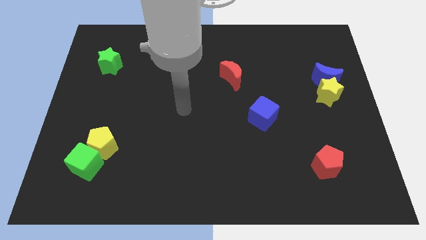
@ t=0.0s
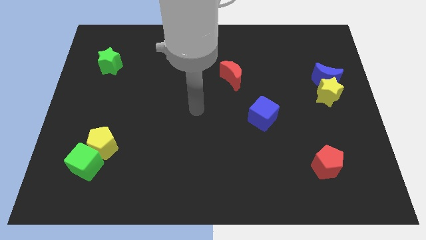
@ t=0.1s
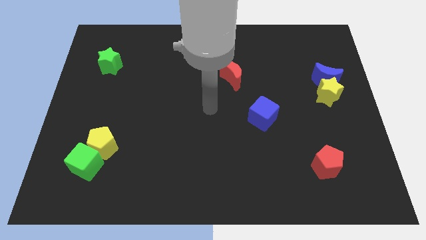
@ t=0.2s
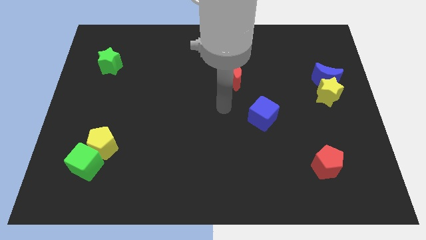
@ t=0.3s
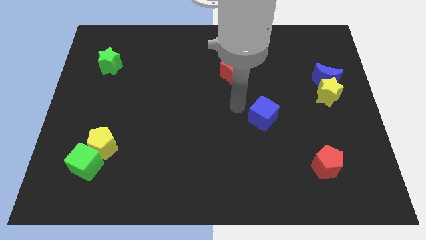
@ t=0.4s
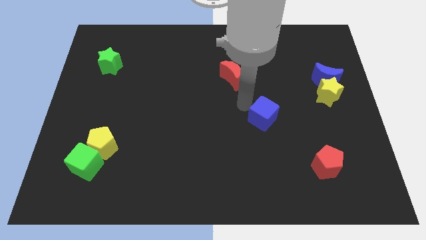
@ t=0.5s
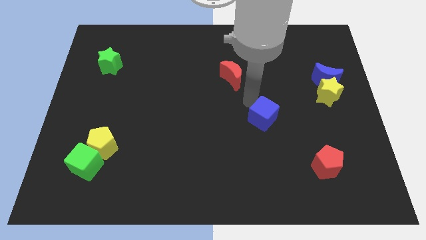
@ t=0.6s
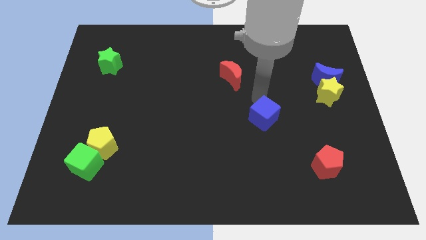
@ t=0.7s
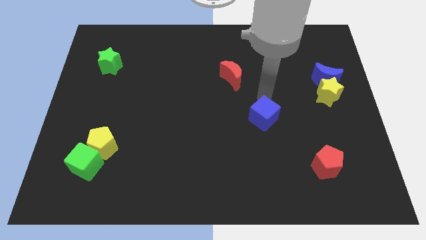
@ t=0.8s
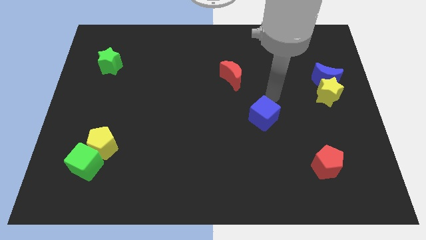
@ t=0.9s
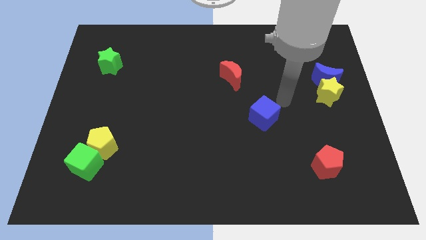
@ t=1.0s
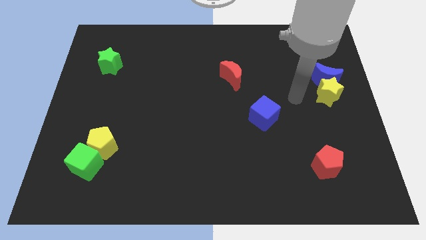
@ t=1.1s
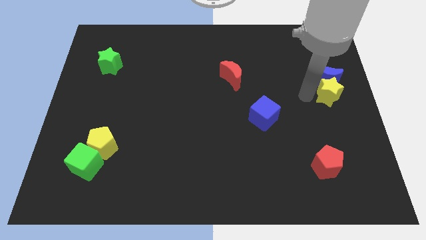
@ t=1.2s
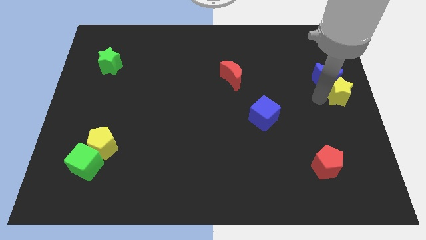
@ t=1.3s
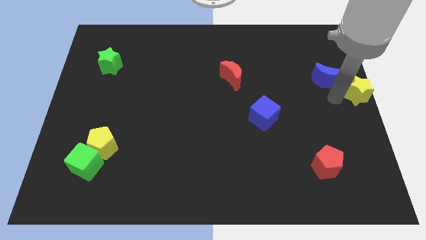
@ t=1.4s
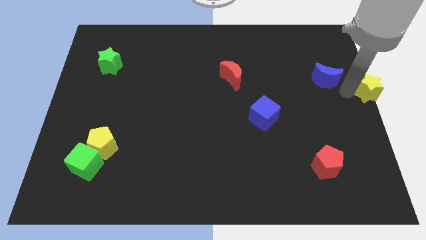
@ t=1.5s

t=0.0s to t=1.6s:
pull the blue moon apart from the yellow star

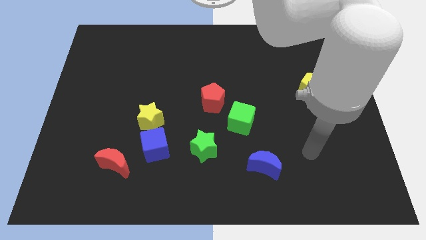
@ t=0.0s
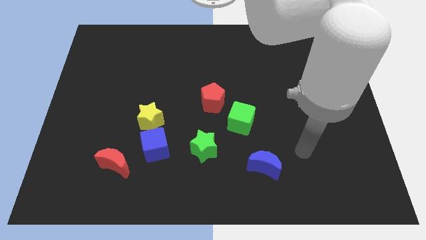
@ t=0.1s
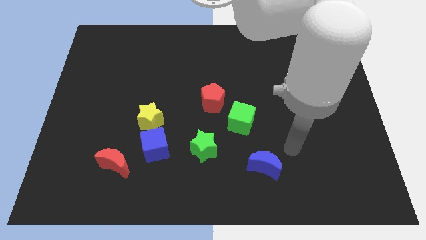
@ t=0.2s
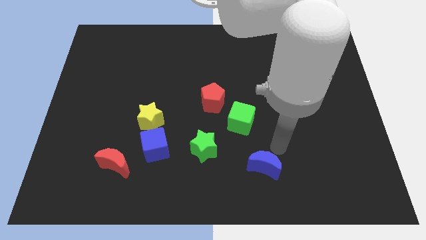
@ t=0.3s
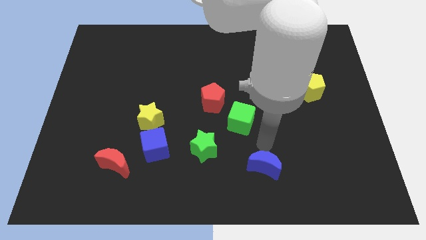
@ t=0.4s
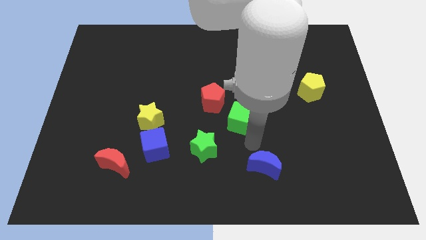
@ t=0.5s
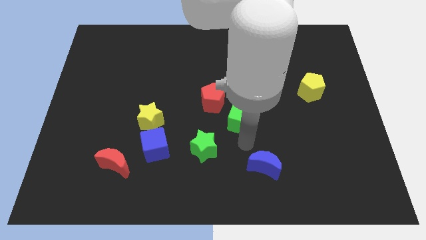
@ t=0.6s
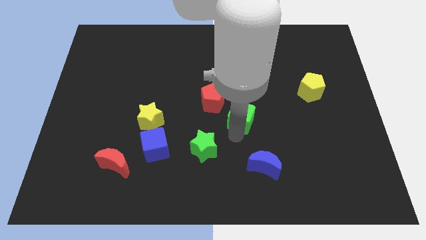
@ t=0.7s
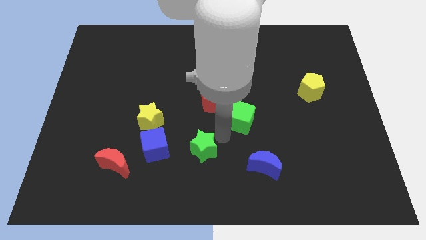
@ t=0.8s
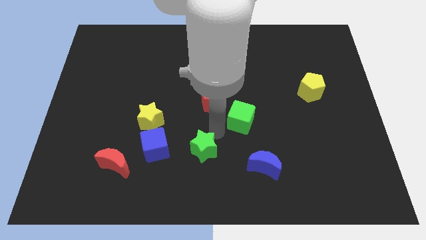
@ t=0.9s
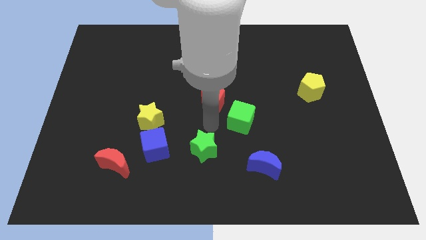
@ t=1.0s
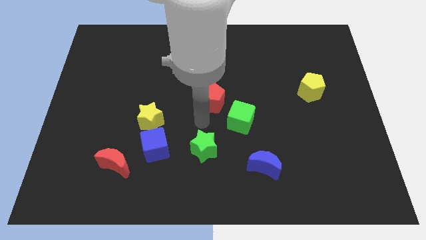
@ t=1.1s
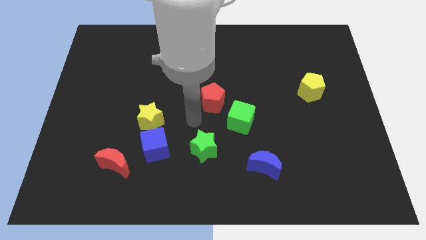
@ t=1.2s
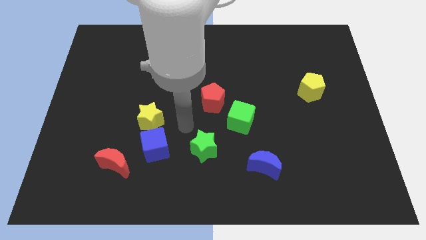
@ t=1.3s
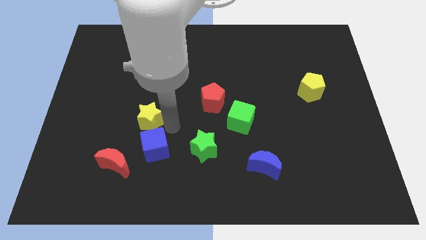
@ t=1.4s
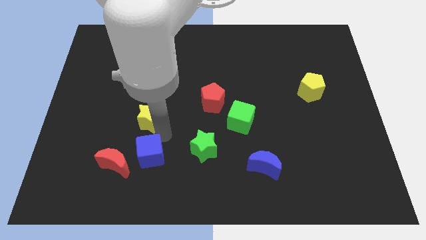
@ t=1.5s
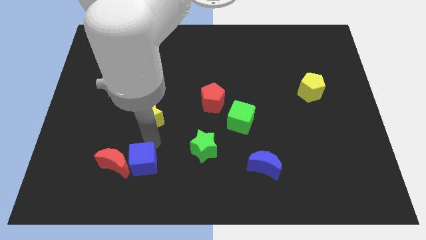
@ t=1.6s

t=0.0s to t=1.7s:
separate the yellow star from the blue cube

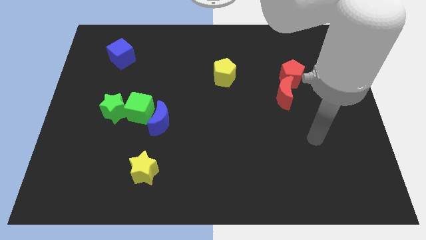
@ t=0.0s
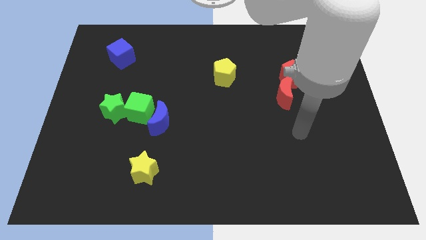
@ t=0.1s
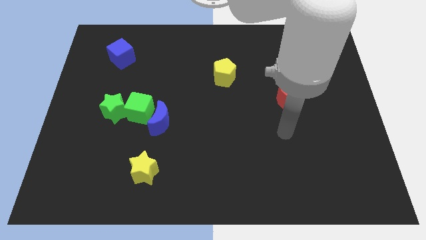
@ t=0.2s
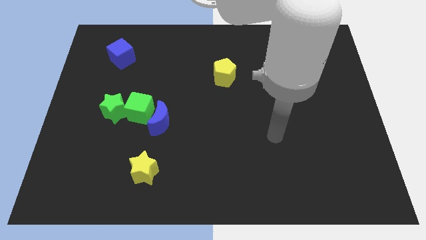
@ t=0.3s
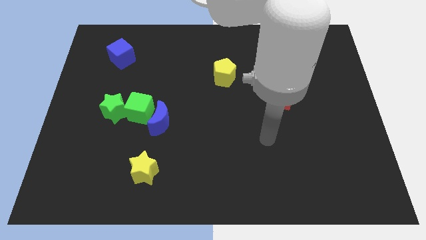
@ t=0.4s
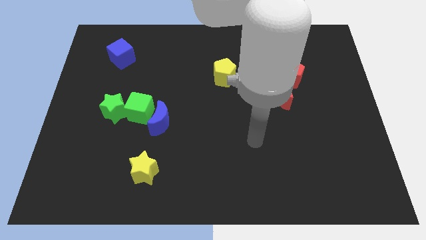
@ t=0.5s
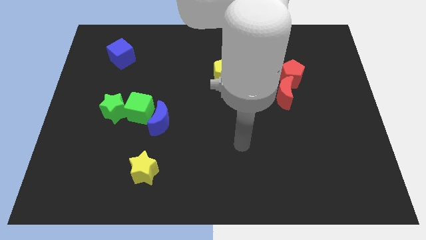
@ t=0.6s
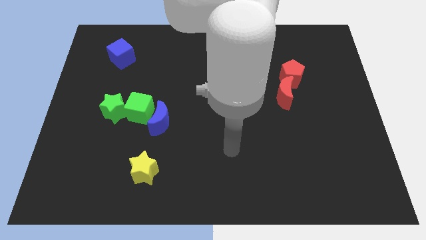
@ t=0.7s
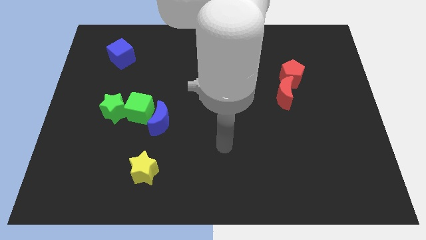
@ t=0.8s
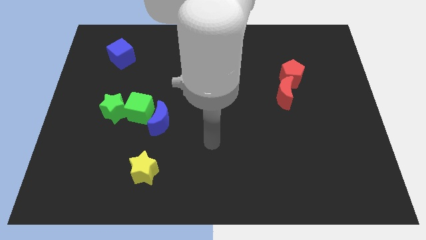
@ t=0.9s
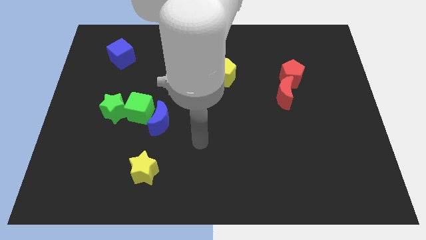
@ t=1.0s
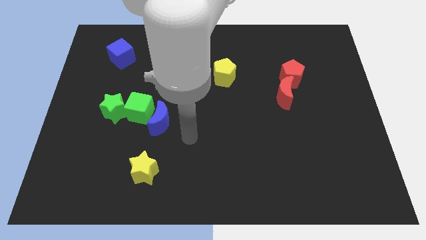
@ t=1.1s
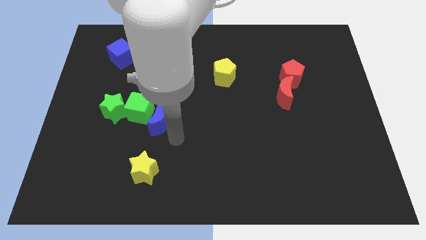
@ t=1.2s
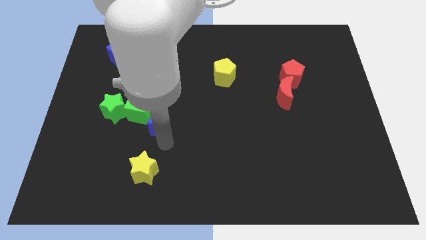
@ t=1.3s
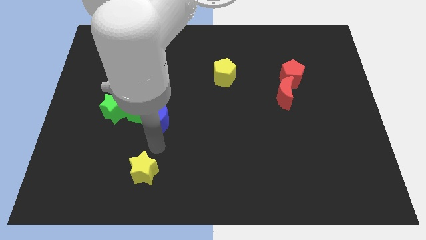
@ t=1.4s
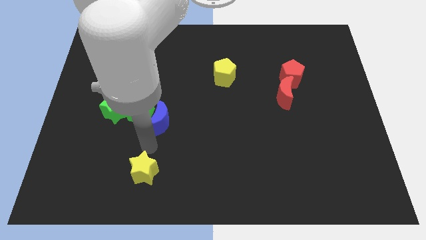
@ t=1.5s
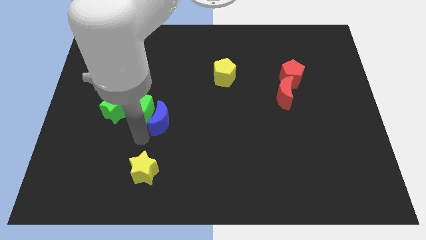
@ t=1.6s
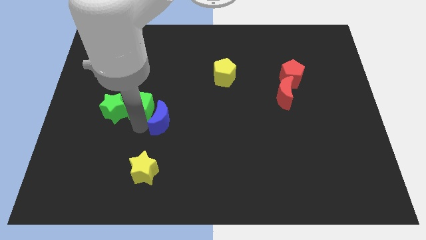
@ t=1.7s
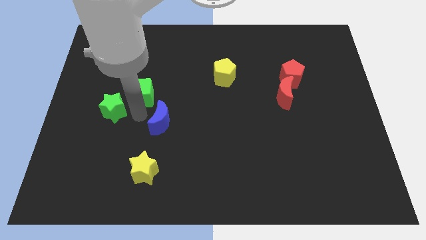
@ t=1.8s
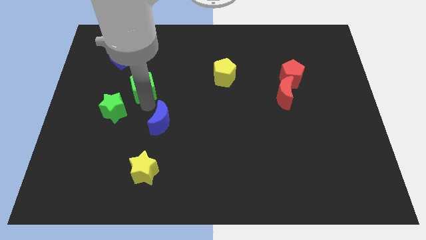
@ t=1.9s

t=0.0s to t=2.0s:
pull the blue moon apart from the green cube

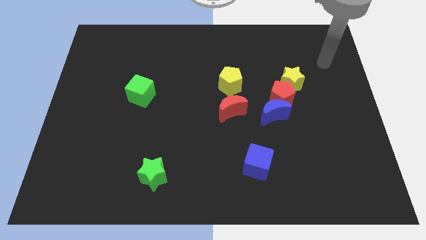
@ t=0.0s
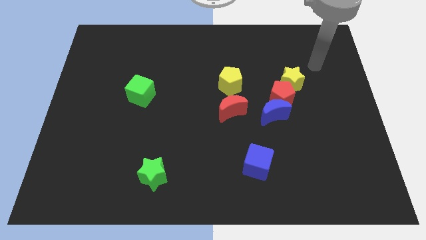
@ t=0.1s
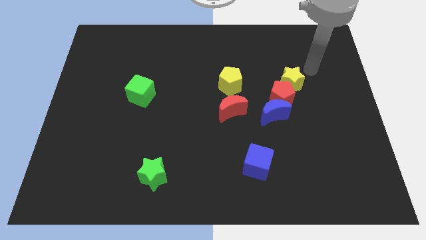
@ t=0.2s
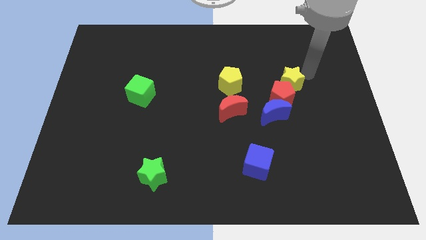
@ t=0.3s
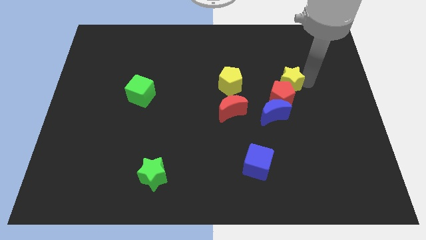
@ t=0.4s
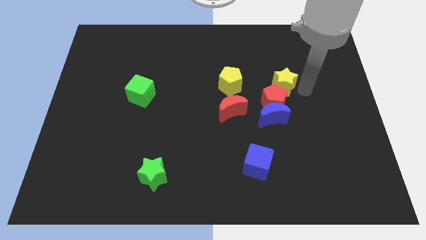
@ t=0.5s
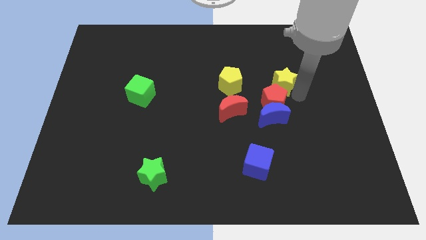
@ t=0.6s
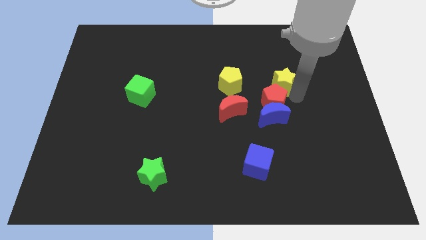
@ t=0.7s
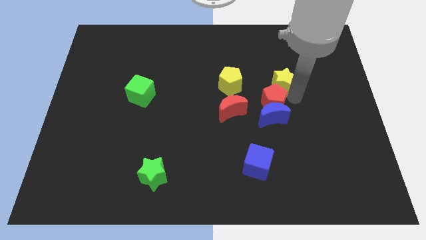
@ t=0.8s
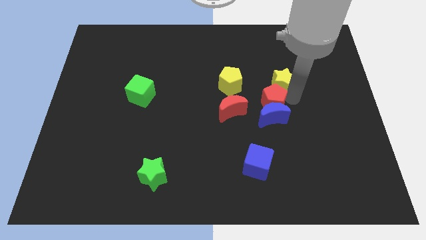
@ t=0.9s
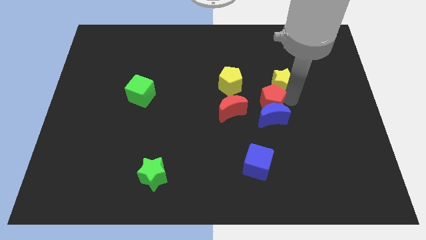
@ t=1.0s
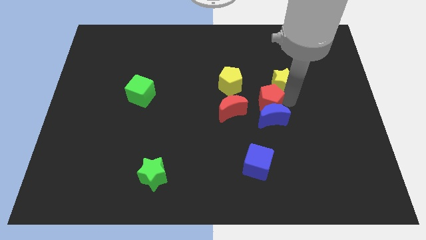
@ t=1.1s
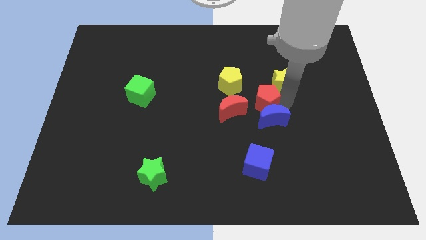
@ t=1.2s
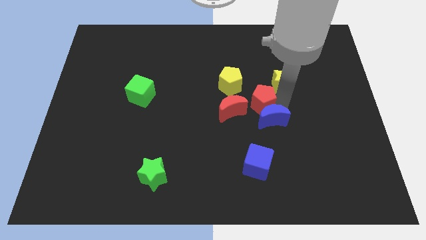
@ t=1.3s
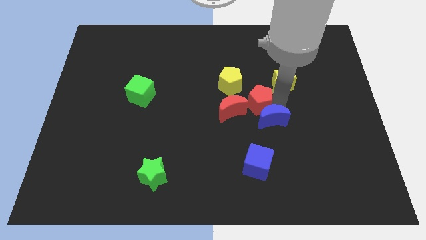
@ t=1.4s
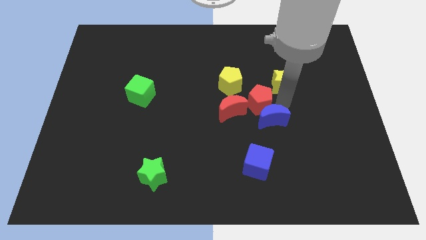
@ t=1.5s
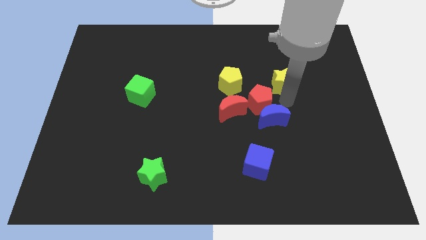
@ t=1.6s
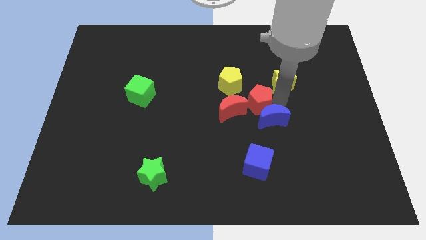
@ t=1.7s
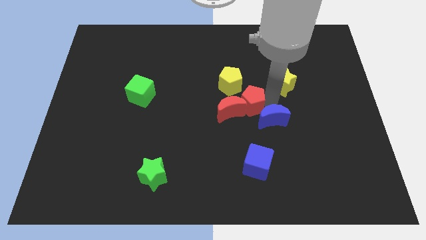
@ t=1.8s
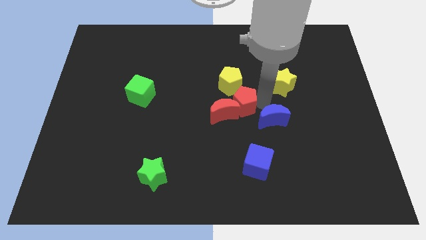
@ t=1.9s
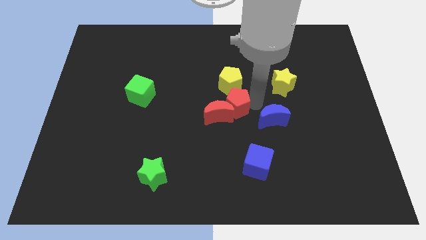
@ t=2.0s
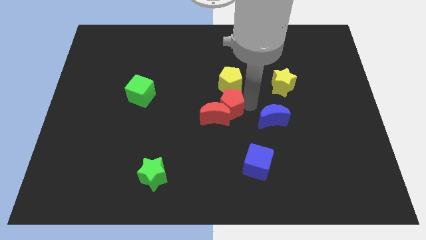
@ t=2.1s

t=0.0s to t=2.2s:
separate the red pentagon from the blue moon and yellow star

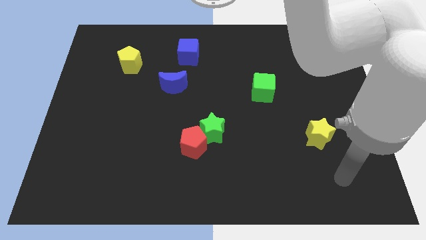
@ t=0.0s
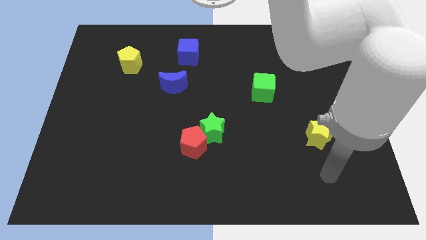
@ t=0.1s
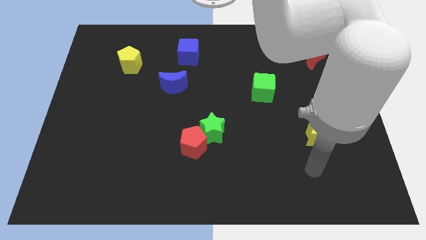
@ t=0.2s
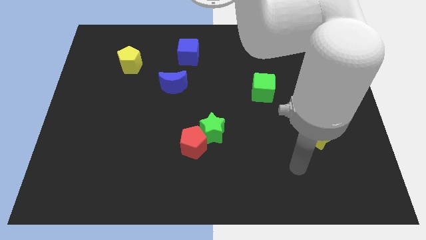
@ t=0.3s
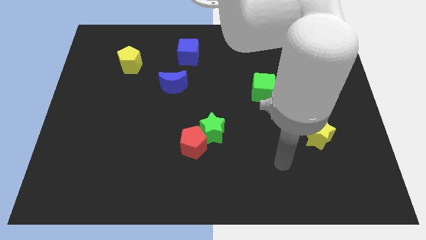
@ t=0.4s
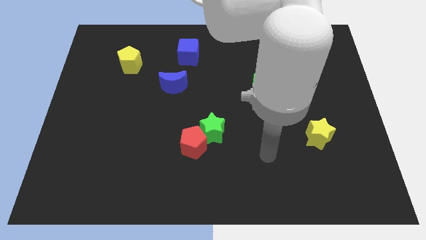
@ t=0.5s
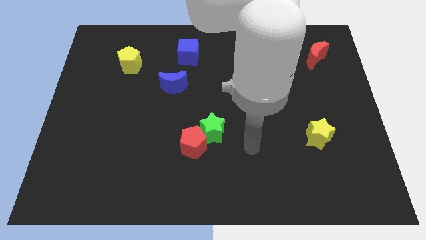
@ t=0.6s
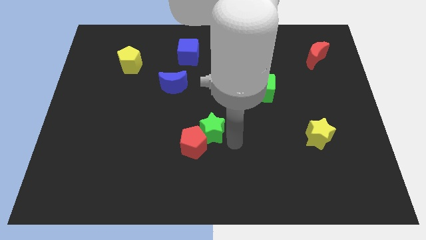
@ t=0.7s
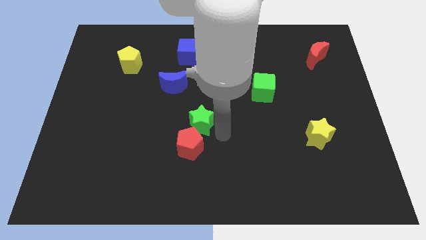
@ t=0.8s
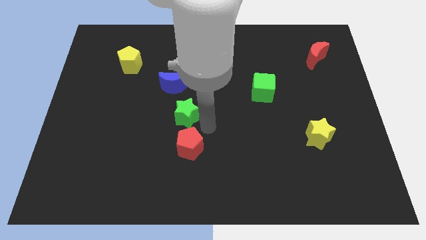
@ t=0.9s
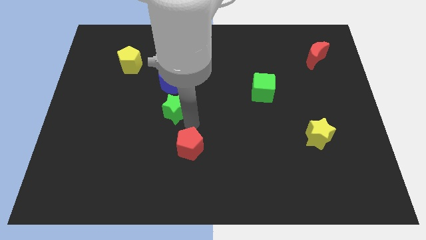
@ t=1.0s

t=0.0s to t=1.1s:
move the red pentagon away from the green star

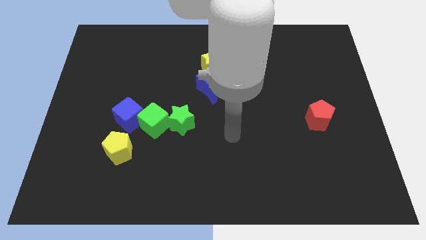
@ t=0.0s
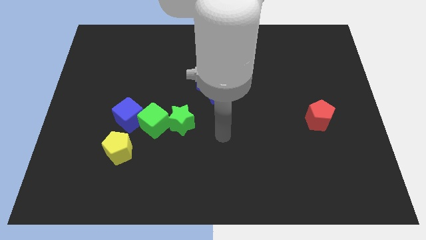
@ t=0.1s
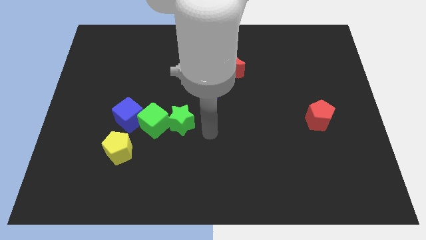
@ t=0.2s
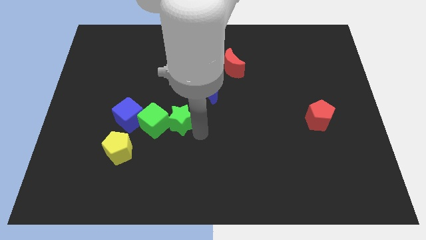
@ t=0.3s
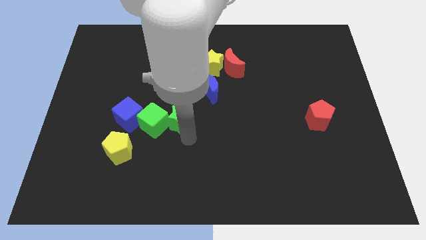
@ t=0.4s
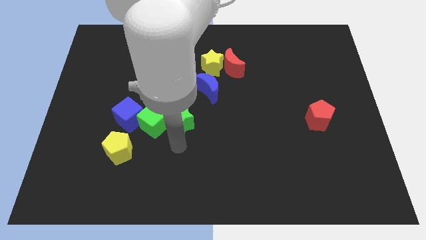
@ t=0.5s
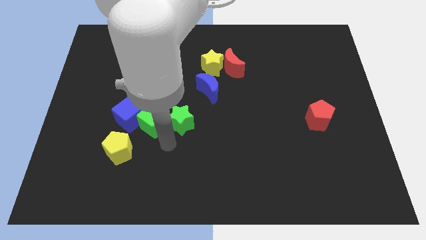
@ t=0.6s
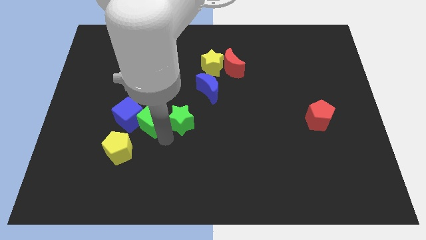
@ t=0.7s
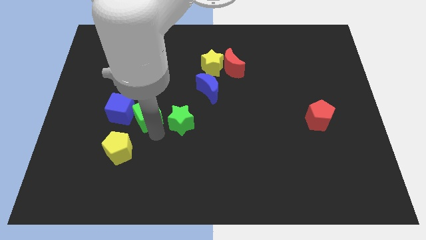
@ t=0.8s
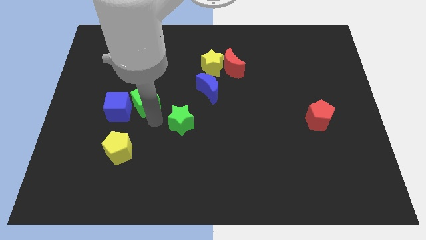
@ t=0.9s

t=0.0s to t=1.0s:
move the green star away from the green cube
